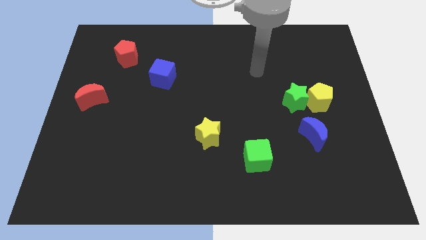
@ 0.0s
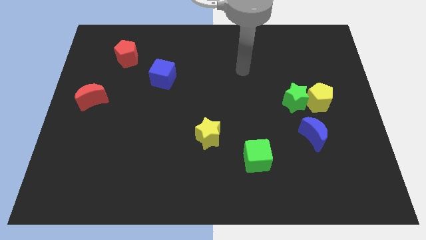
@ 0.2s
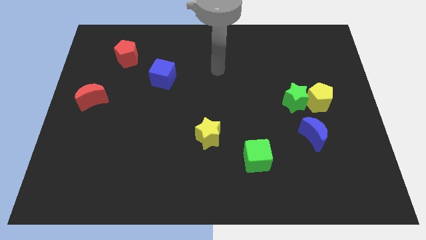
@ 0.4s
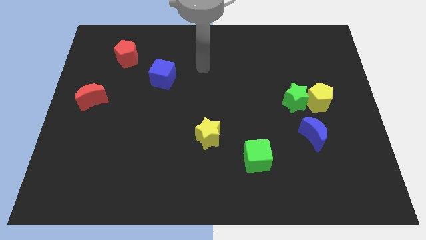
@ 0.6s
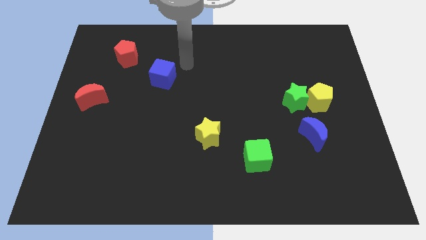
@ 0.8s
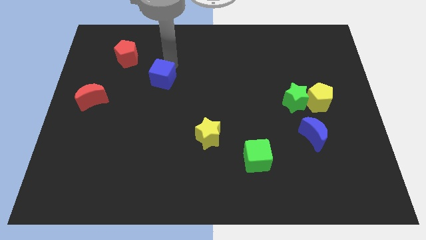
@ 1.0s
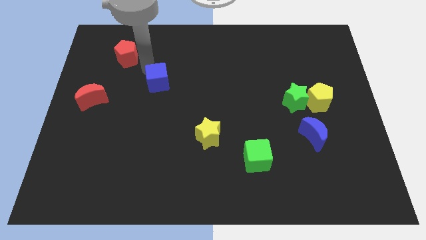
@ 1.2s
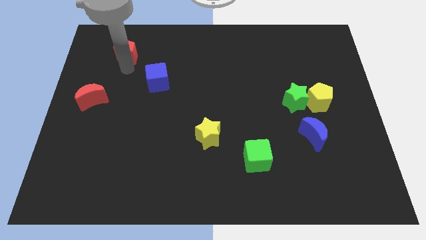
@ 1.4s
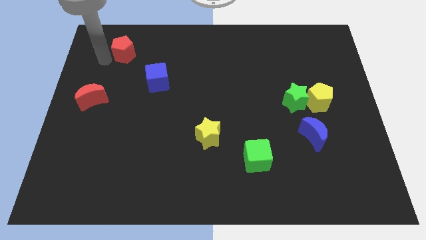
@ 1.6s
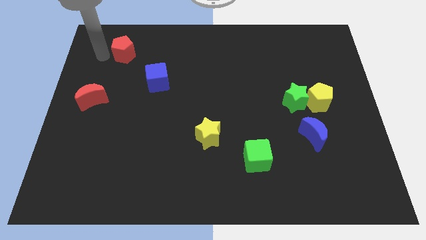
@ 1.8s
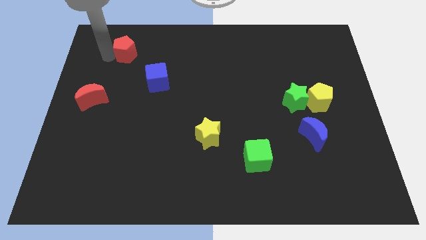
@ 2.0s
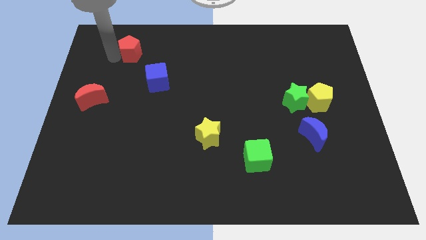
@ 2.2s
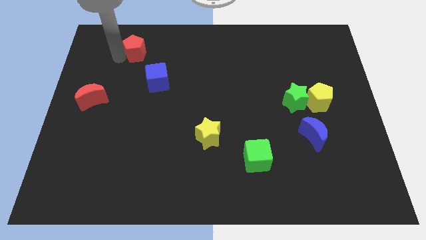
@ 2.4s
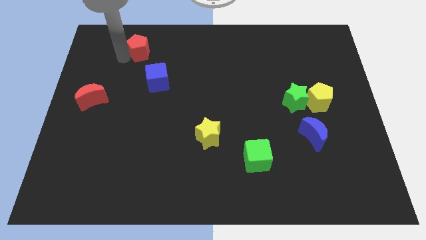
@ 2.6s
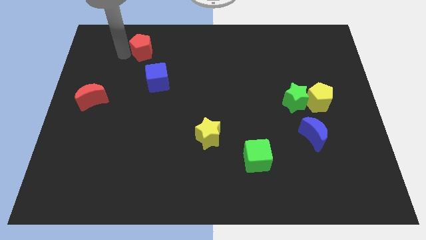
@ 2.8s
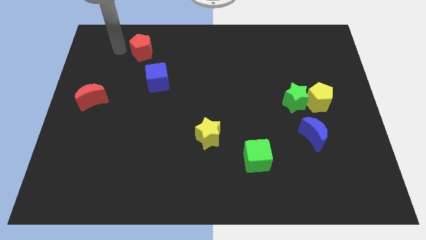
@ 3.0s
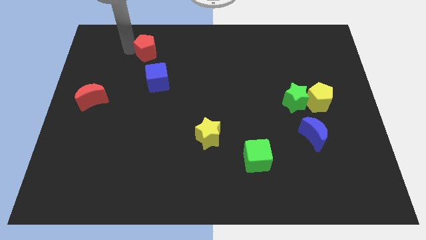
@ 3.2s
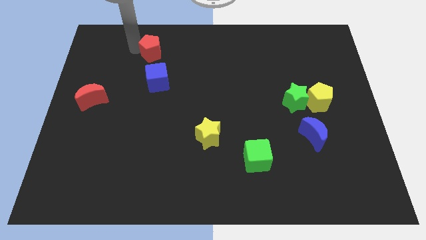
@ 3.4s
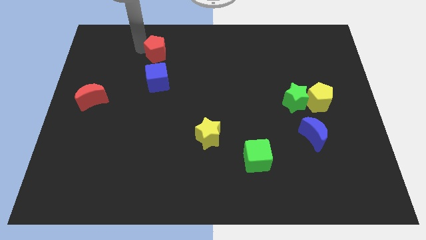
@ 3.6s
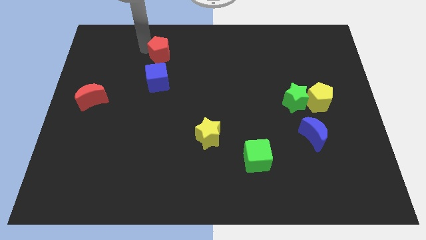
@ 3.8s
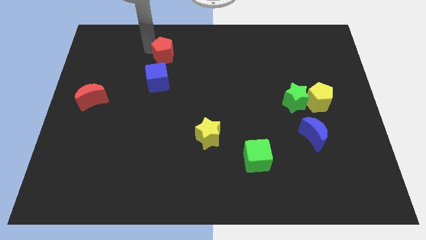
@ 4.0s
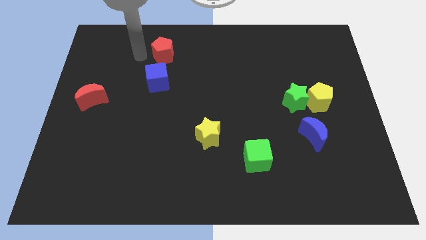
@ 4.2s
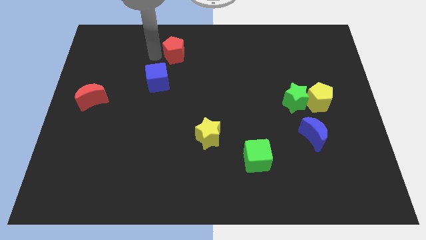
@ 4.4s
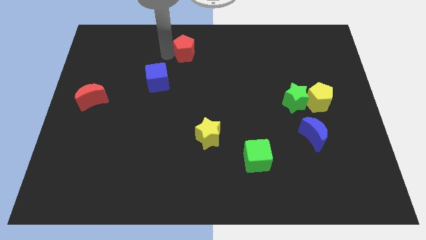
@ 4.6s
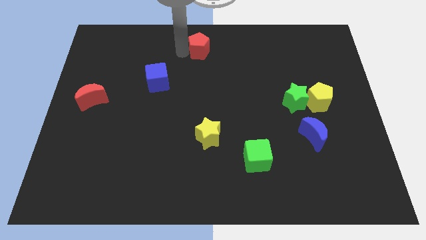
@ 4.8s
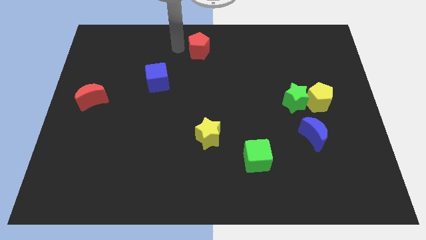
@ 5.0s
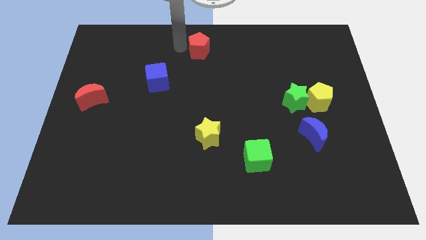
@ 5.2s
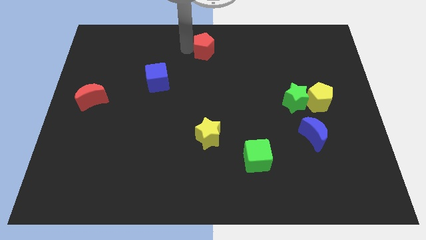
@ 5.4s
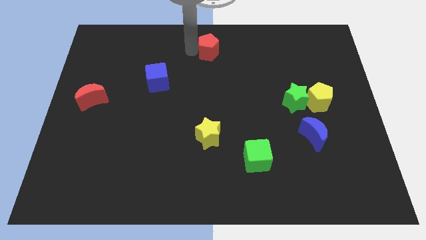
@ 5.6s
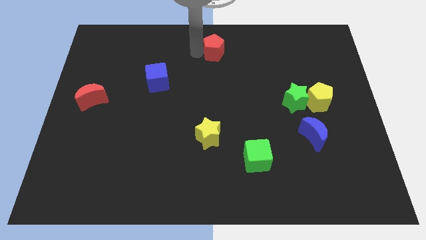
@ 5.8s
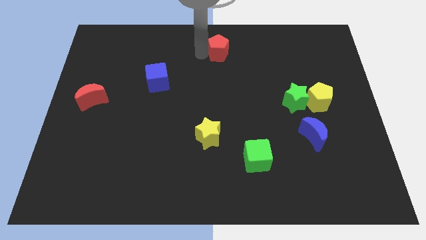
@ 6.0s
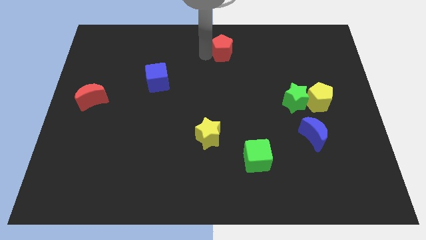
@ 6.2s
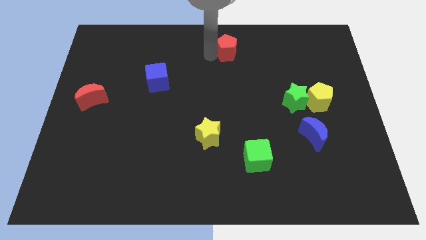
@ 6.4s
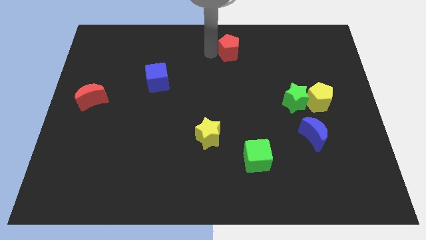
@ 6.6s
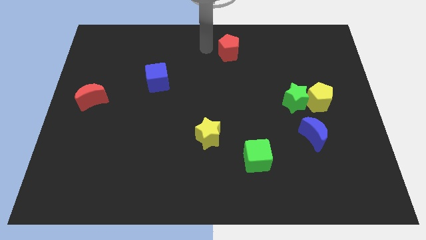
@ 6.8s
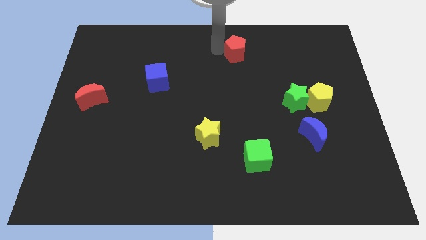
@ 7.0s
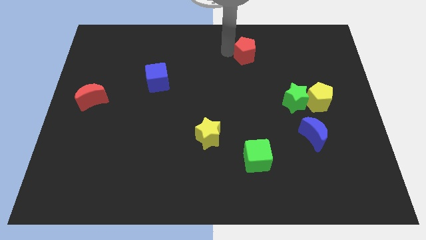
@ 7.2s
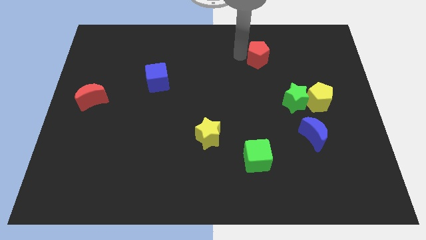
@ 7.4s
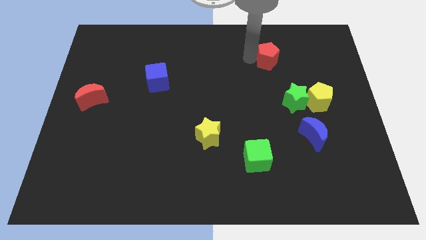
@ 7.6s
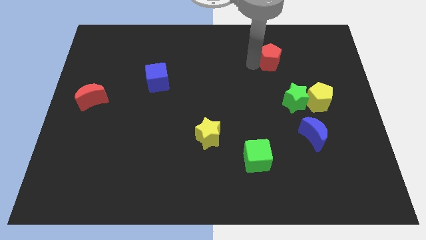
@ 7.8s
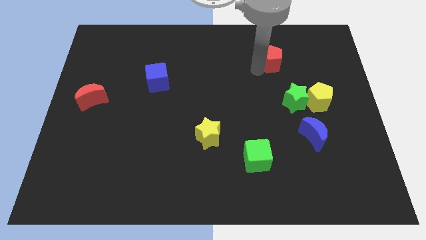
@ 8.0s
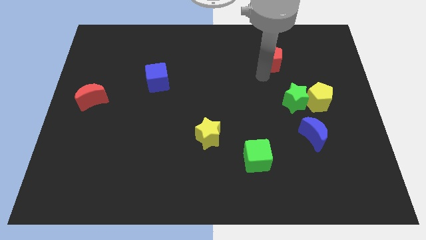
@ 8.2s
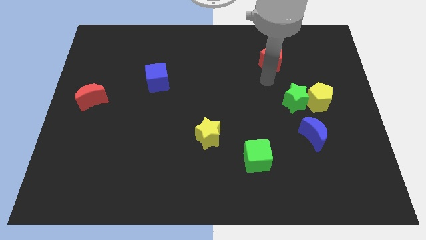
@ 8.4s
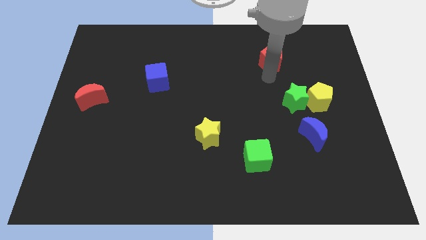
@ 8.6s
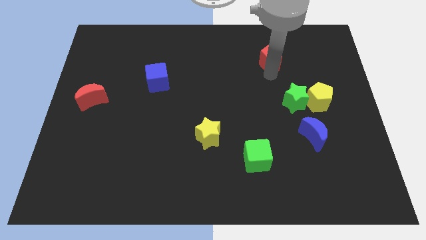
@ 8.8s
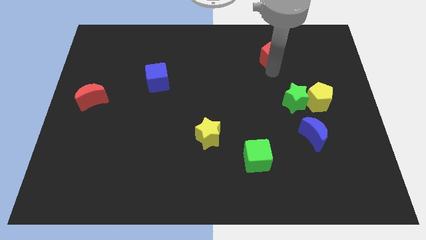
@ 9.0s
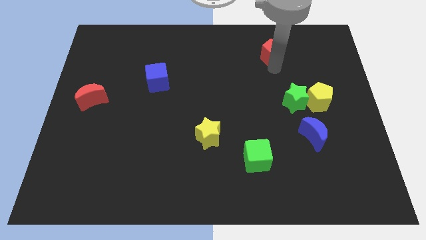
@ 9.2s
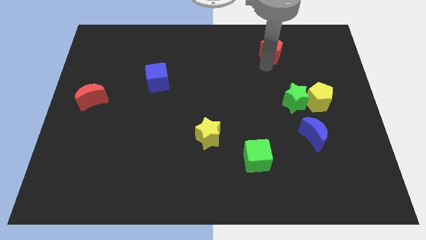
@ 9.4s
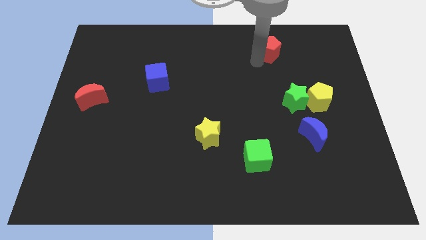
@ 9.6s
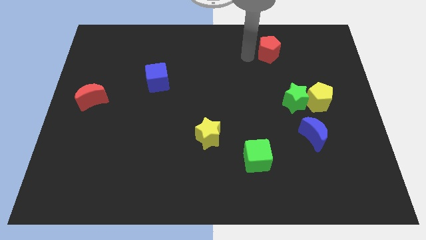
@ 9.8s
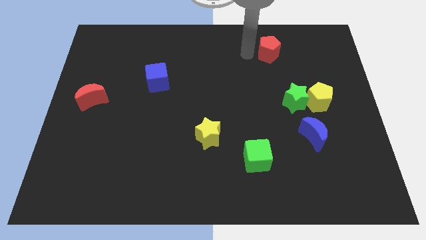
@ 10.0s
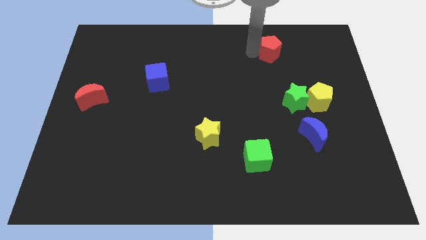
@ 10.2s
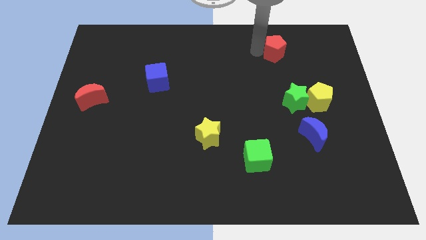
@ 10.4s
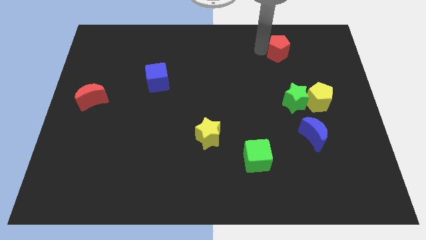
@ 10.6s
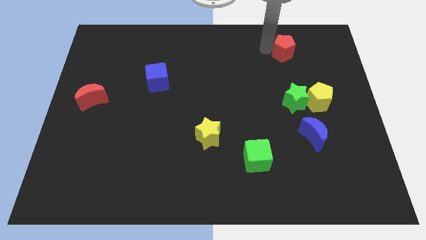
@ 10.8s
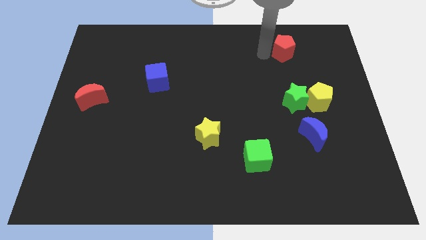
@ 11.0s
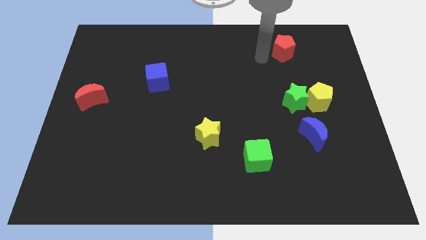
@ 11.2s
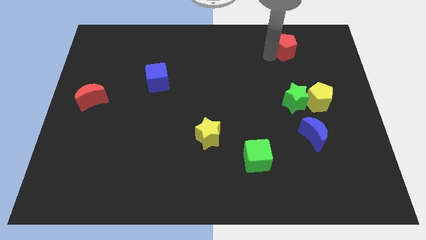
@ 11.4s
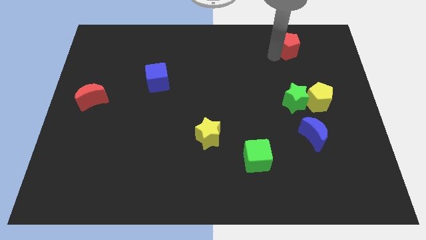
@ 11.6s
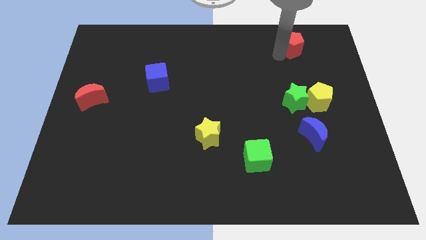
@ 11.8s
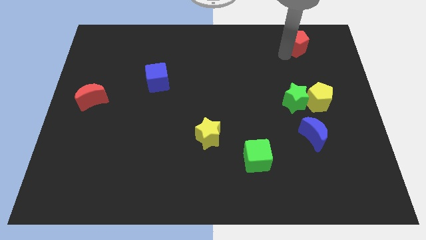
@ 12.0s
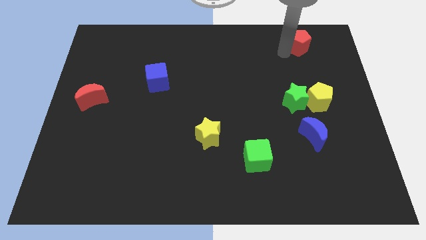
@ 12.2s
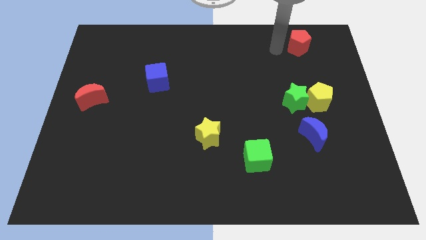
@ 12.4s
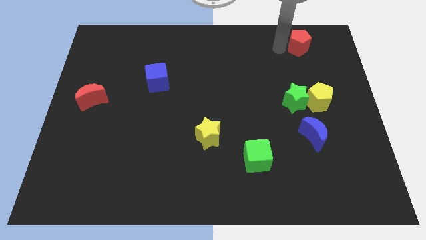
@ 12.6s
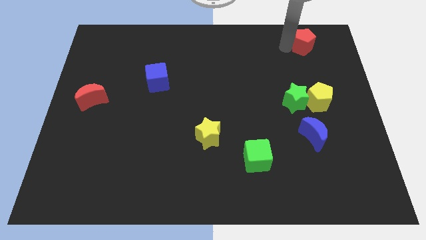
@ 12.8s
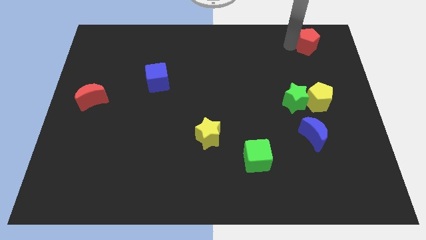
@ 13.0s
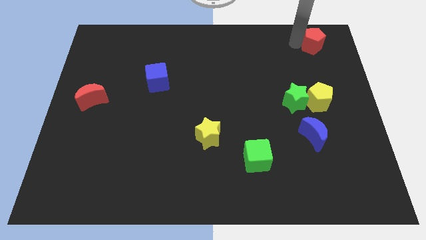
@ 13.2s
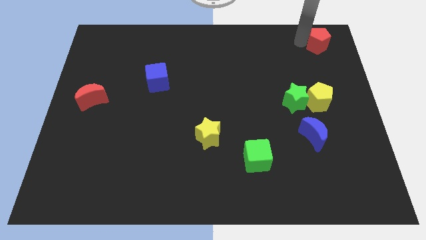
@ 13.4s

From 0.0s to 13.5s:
move the red pentagon to the top right

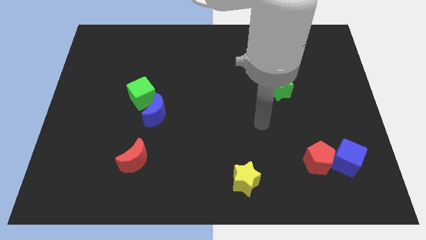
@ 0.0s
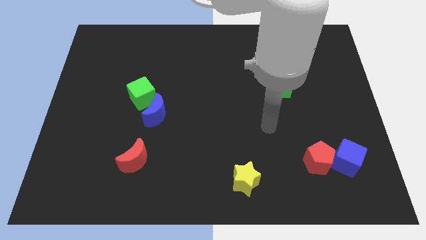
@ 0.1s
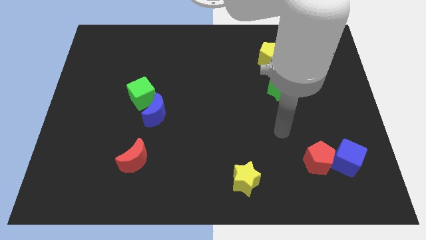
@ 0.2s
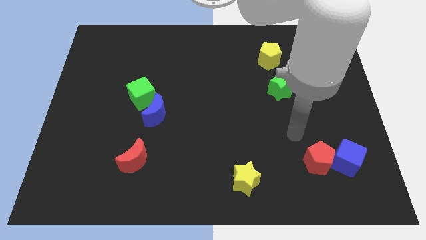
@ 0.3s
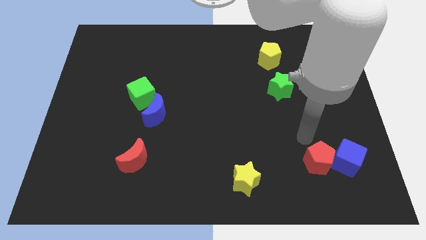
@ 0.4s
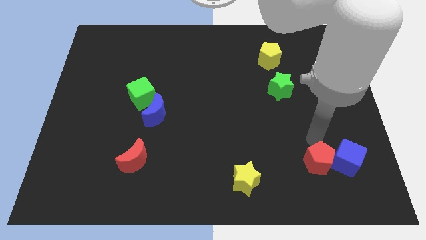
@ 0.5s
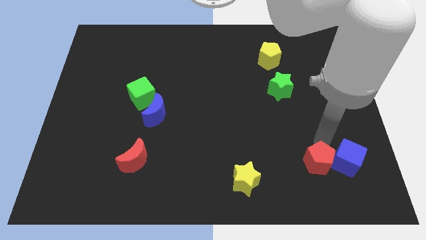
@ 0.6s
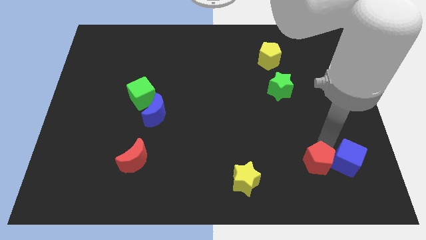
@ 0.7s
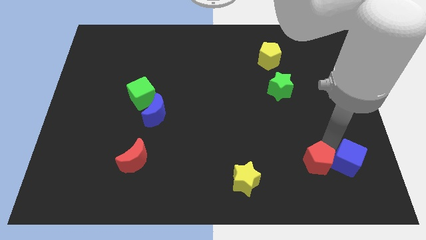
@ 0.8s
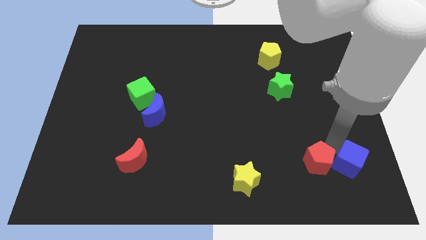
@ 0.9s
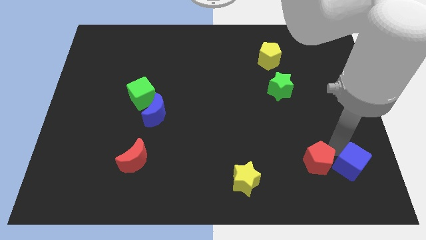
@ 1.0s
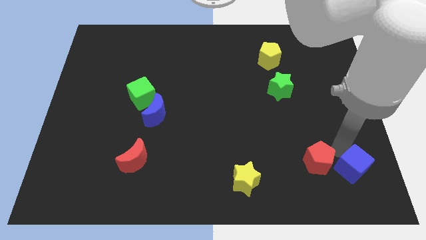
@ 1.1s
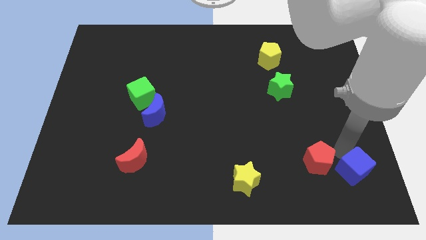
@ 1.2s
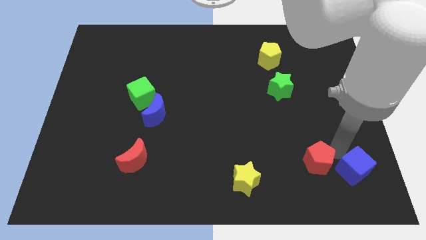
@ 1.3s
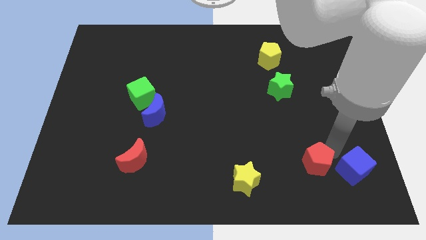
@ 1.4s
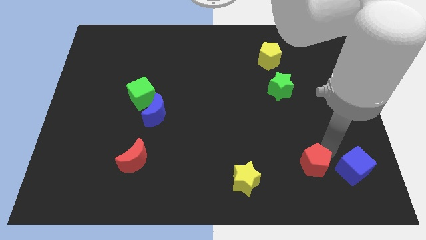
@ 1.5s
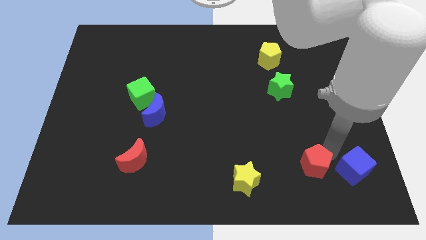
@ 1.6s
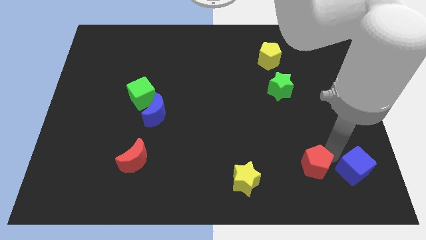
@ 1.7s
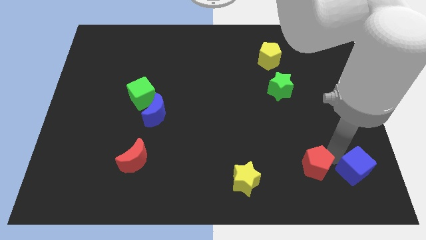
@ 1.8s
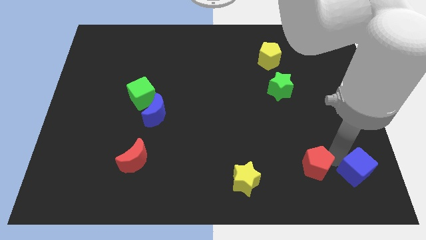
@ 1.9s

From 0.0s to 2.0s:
move the blue cube to the bottom right
